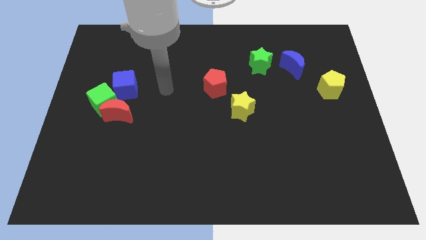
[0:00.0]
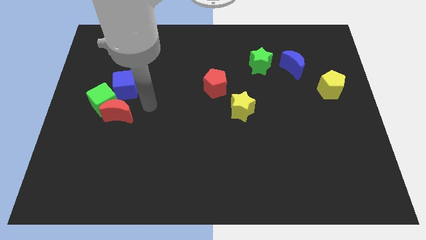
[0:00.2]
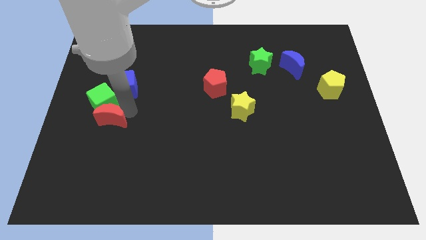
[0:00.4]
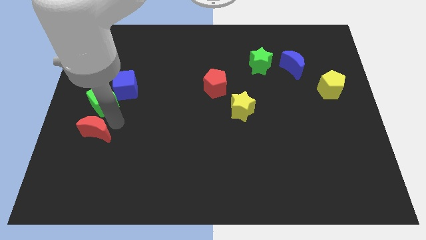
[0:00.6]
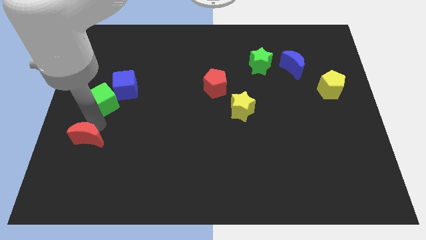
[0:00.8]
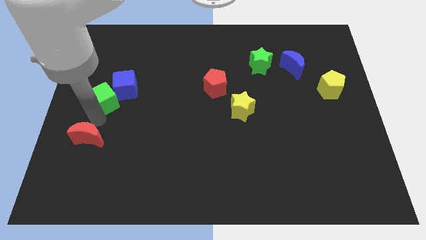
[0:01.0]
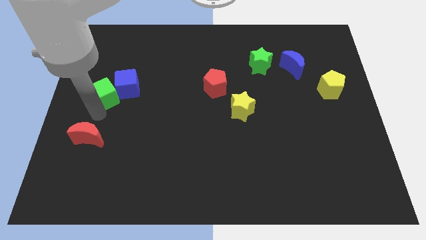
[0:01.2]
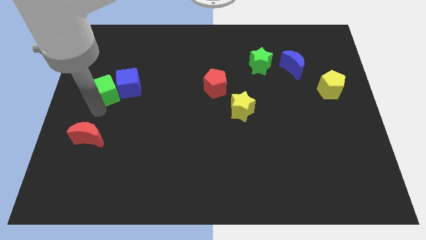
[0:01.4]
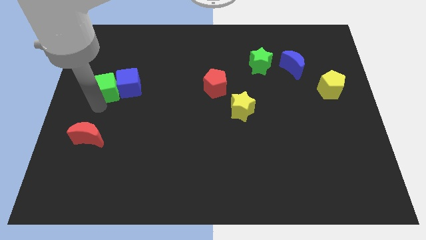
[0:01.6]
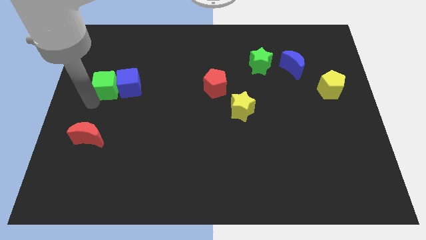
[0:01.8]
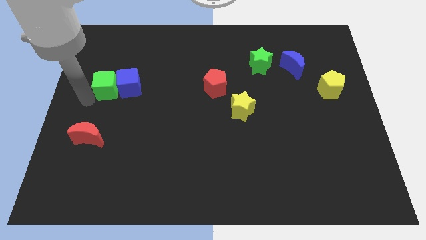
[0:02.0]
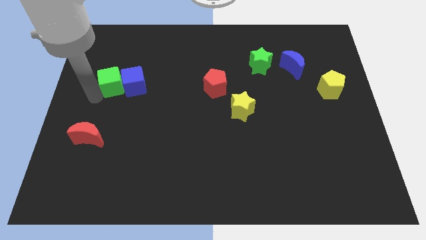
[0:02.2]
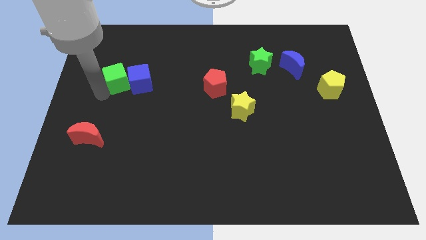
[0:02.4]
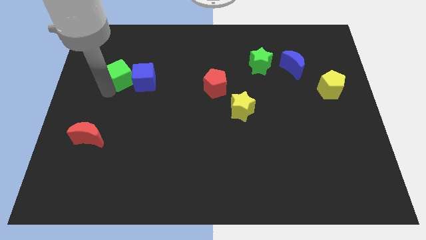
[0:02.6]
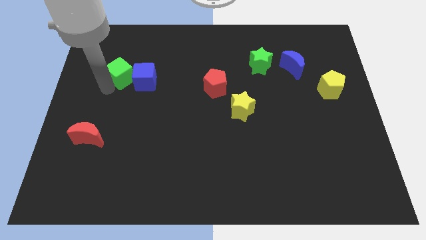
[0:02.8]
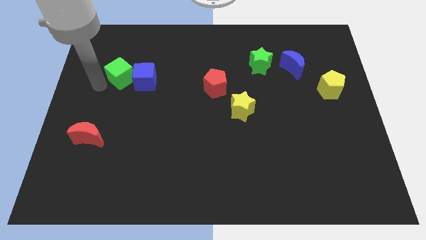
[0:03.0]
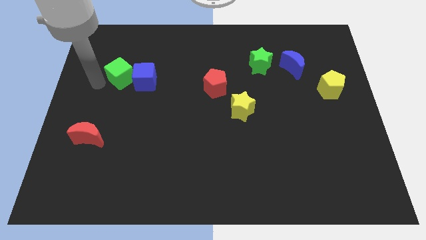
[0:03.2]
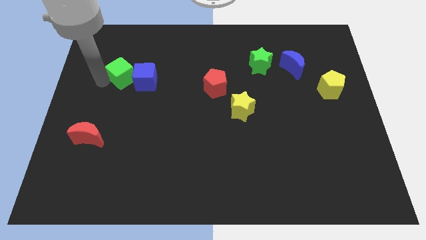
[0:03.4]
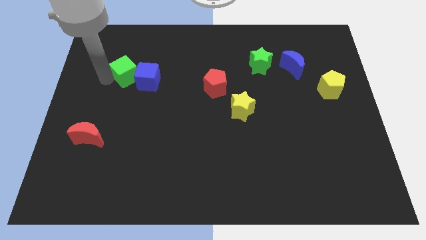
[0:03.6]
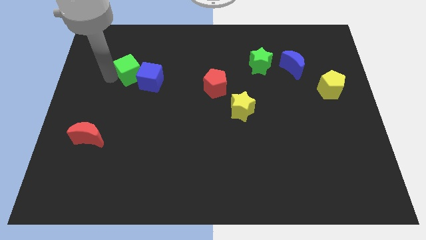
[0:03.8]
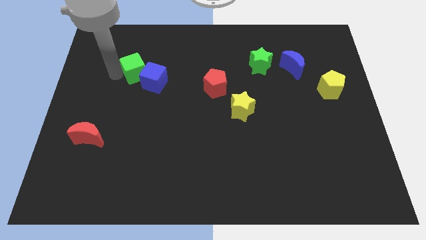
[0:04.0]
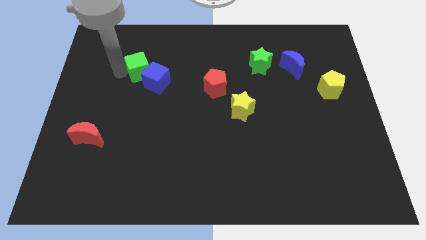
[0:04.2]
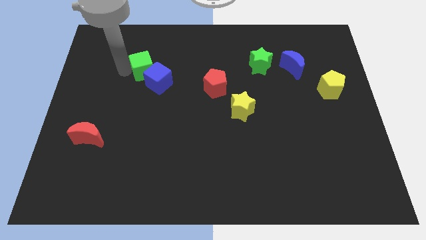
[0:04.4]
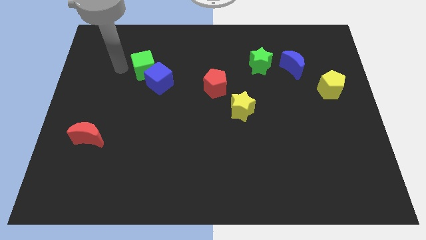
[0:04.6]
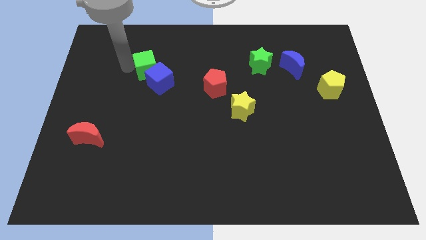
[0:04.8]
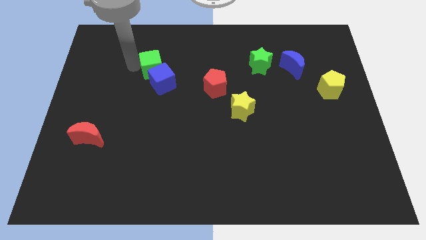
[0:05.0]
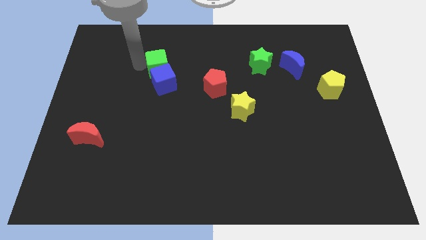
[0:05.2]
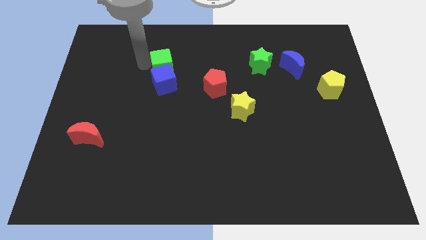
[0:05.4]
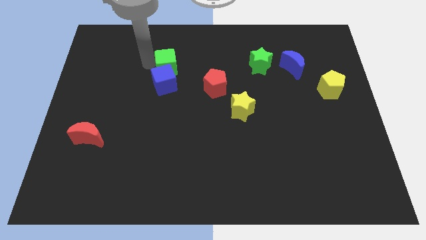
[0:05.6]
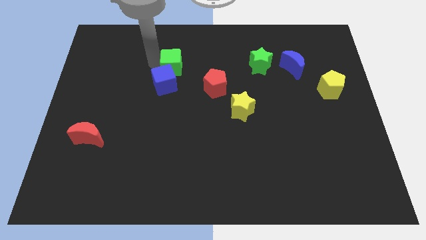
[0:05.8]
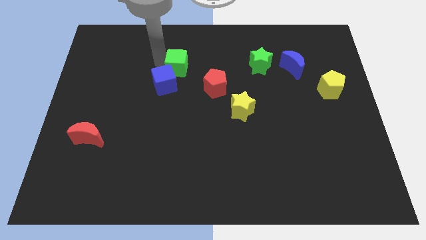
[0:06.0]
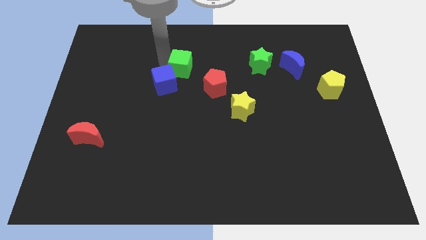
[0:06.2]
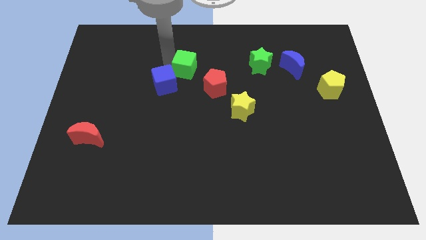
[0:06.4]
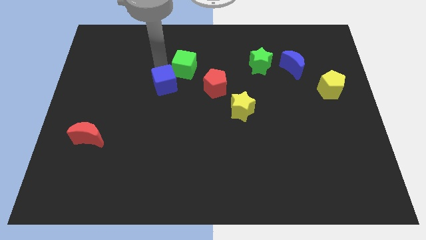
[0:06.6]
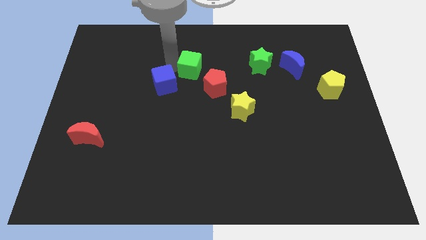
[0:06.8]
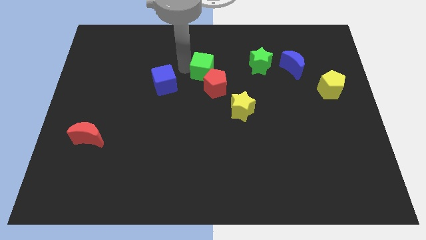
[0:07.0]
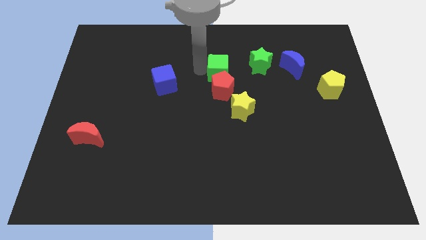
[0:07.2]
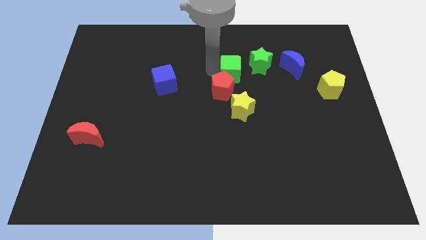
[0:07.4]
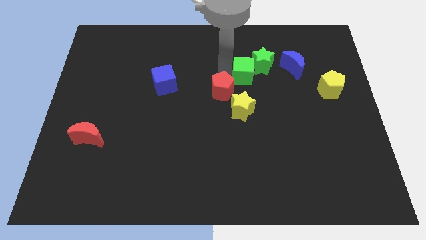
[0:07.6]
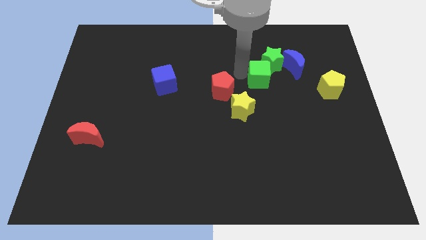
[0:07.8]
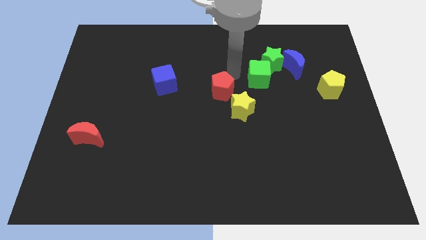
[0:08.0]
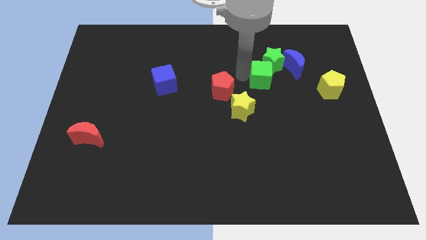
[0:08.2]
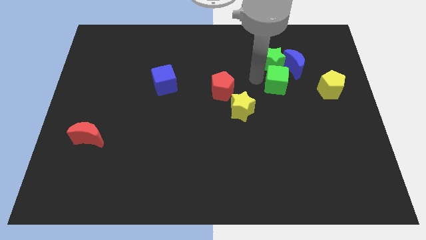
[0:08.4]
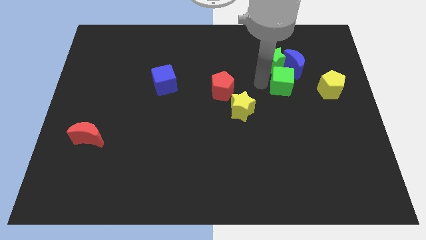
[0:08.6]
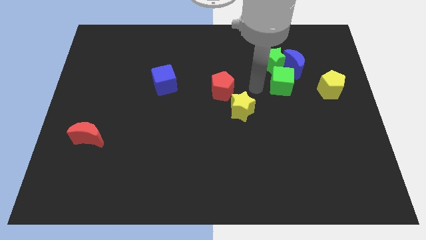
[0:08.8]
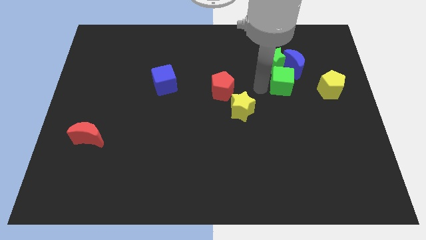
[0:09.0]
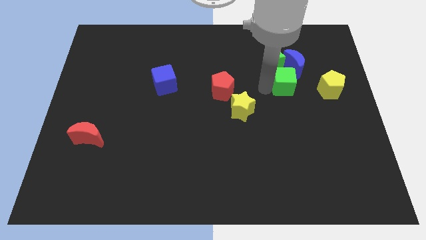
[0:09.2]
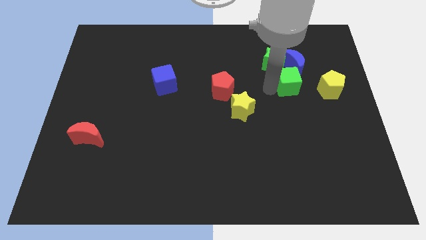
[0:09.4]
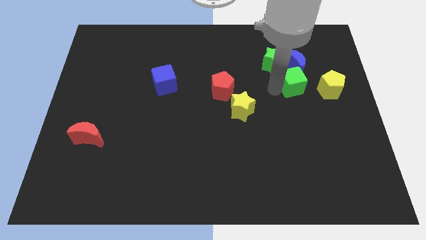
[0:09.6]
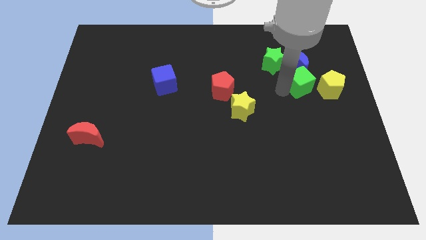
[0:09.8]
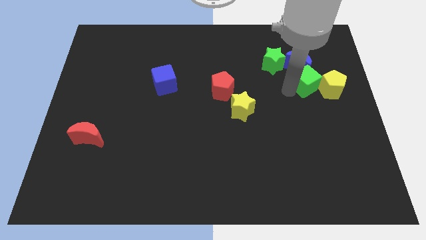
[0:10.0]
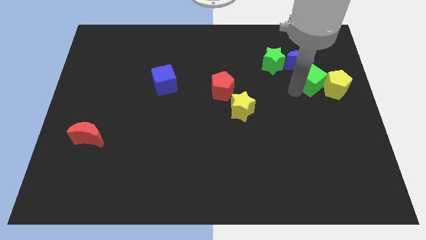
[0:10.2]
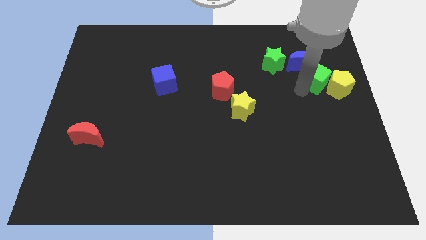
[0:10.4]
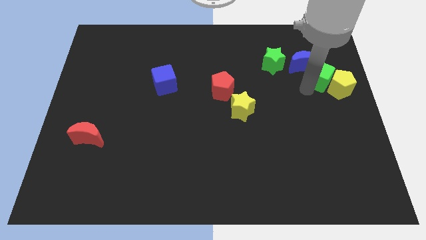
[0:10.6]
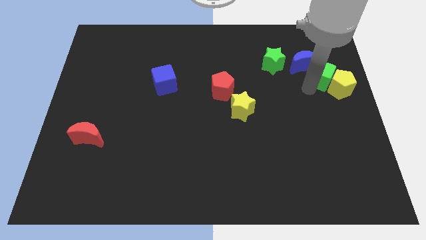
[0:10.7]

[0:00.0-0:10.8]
push the green cube to the top side of the yellow pentagon

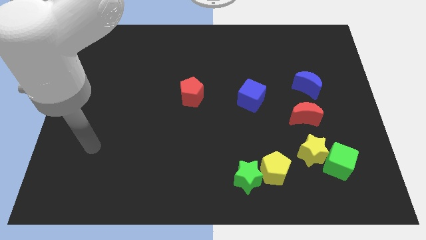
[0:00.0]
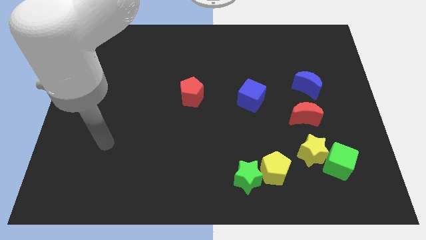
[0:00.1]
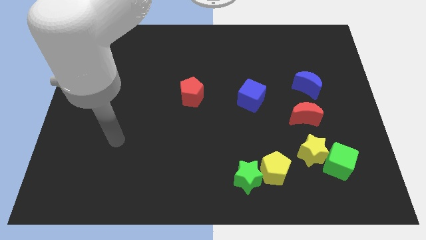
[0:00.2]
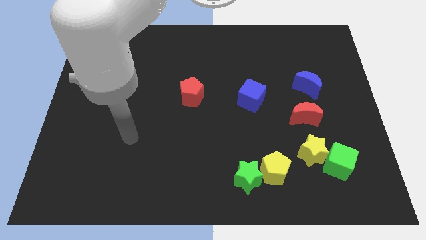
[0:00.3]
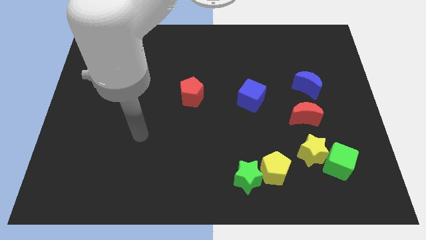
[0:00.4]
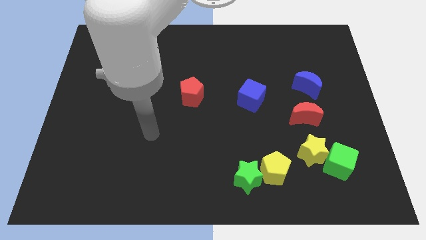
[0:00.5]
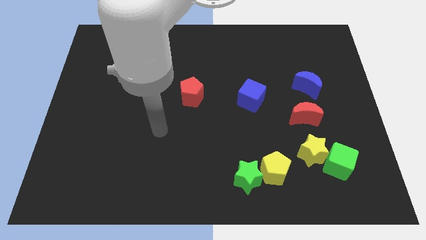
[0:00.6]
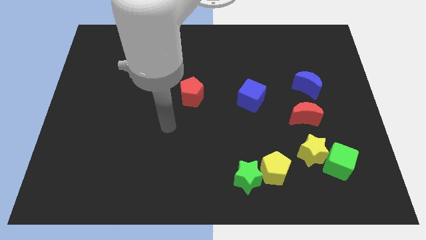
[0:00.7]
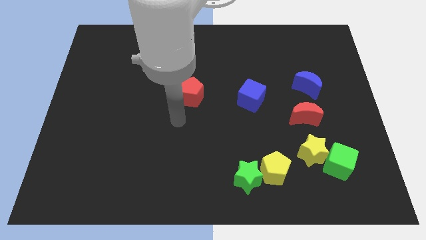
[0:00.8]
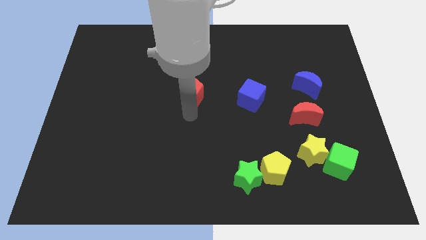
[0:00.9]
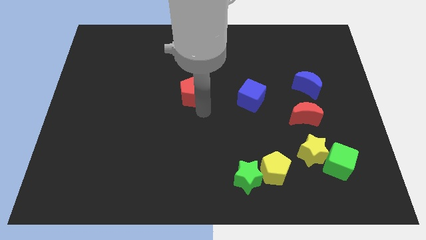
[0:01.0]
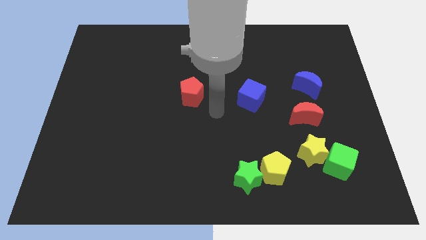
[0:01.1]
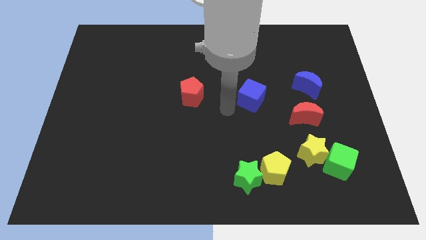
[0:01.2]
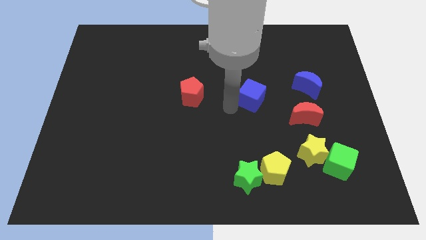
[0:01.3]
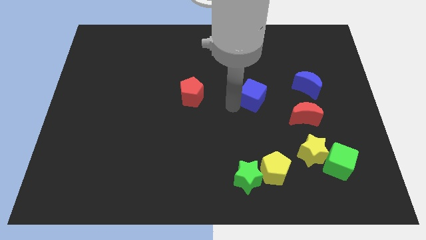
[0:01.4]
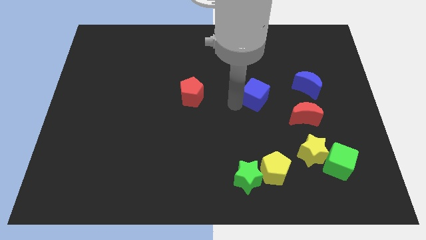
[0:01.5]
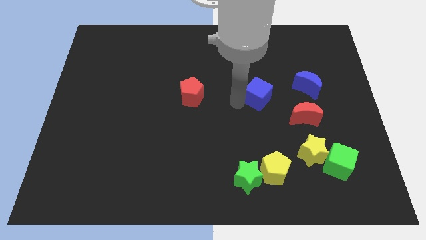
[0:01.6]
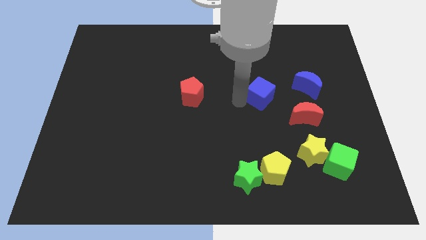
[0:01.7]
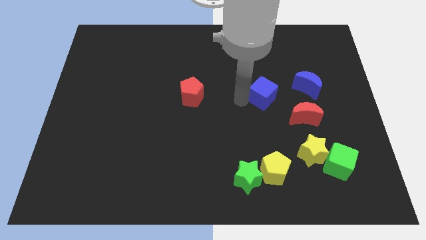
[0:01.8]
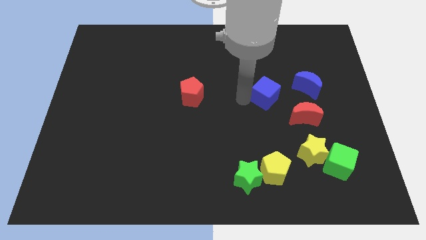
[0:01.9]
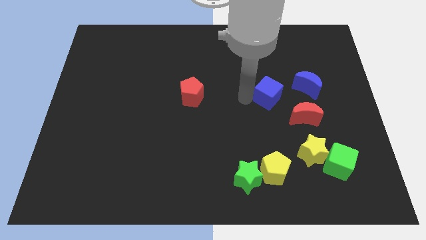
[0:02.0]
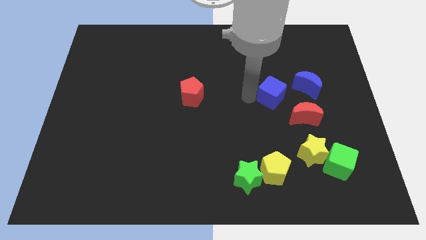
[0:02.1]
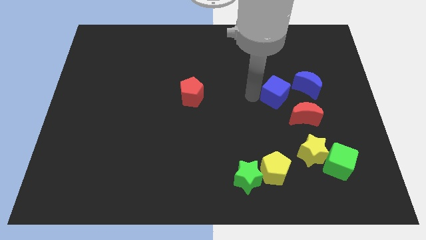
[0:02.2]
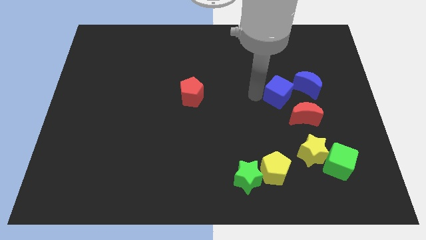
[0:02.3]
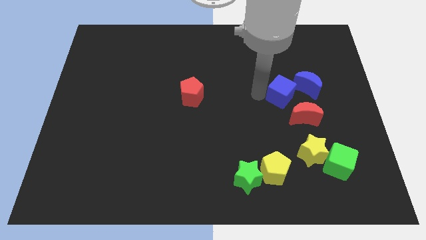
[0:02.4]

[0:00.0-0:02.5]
put the blue cube above the red moon

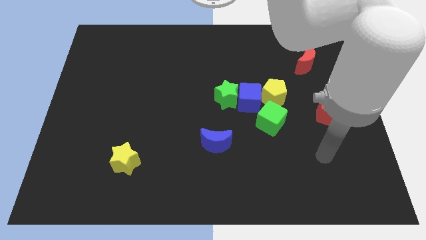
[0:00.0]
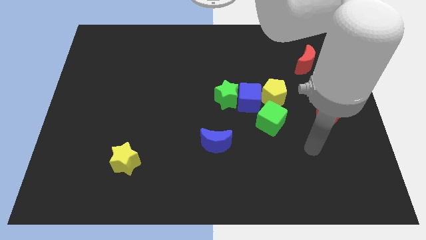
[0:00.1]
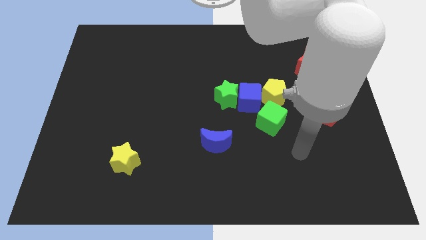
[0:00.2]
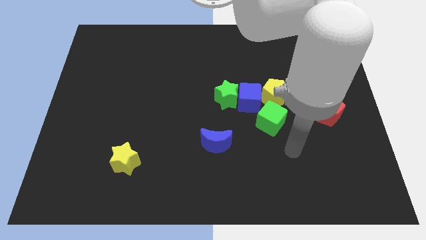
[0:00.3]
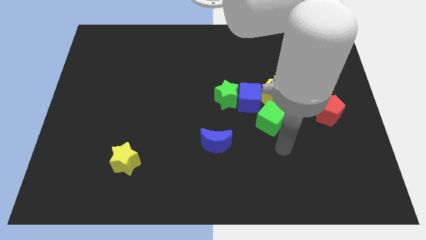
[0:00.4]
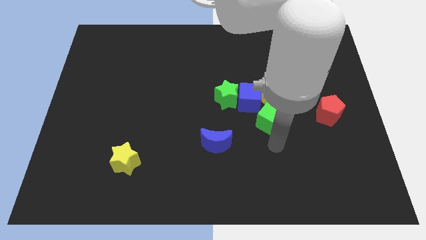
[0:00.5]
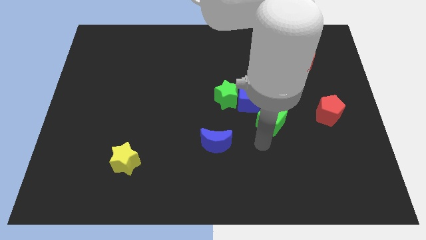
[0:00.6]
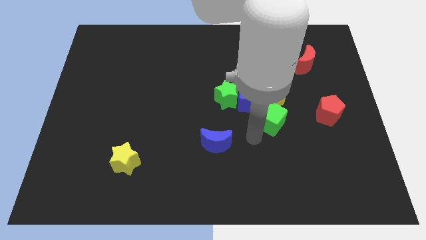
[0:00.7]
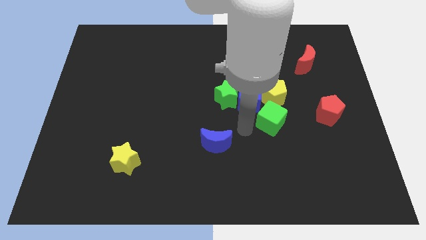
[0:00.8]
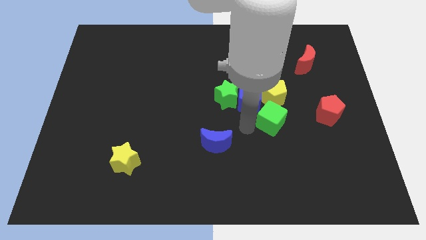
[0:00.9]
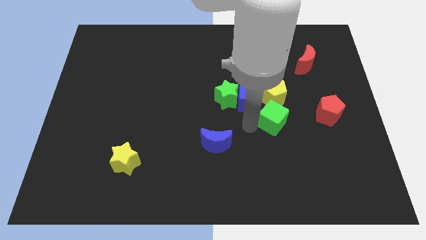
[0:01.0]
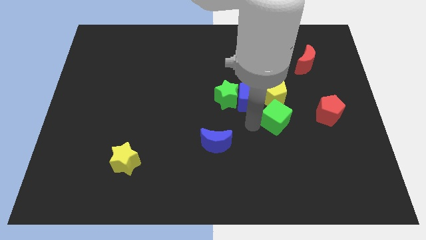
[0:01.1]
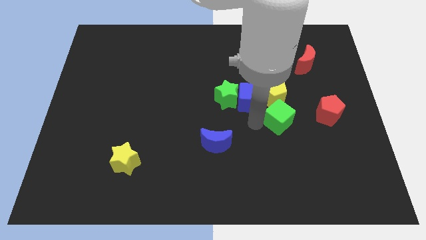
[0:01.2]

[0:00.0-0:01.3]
push the green cube to the bottom right side of the yellow pentagon
